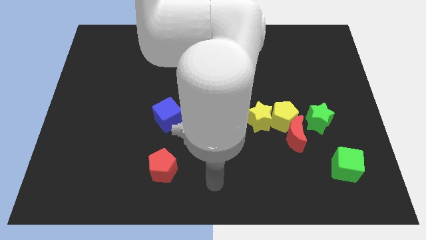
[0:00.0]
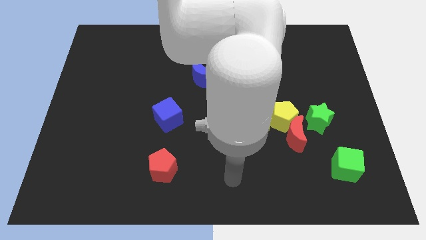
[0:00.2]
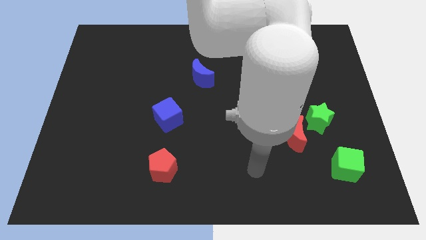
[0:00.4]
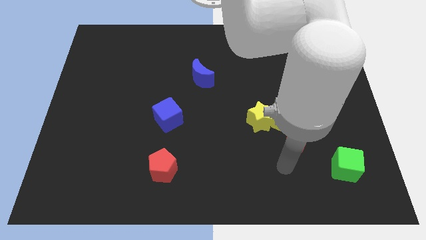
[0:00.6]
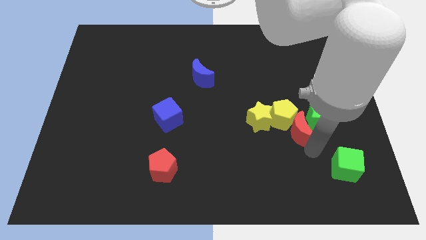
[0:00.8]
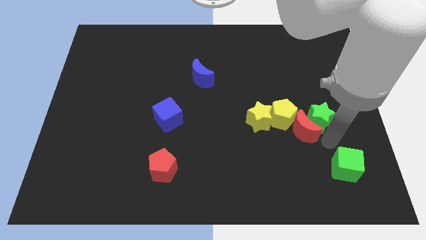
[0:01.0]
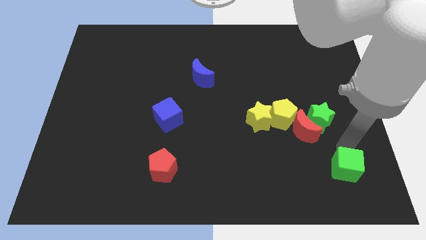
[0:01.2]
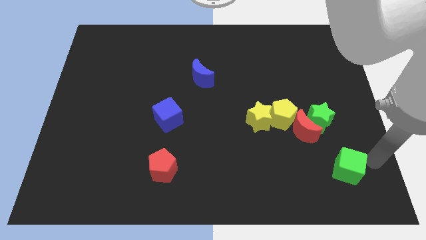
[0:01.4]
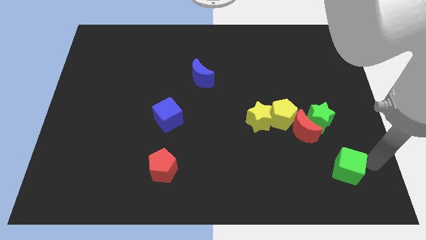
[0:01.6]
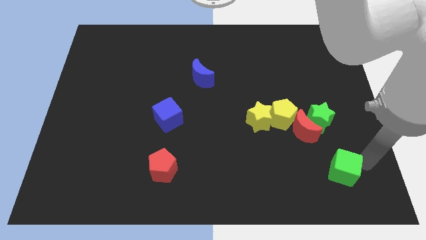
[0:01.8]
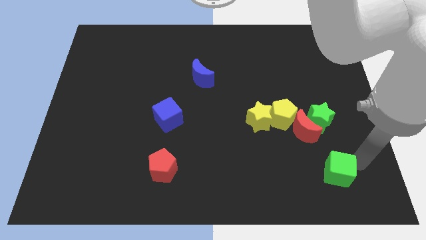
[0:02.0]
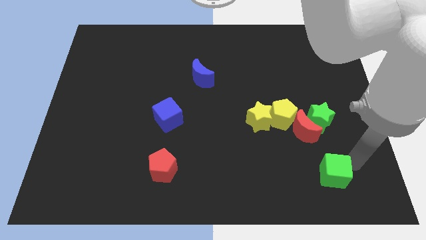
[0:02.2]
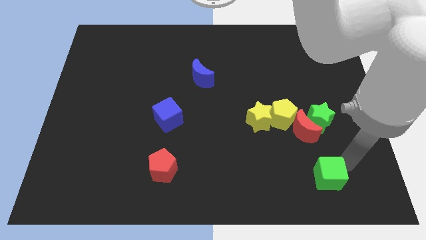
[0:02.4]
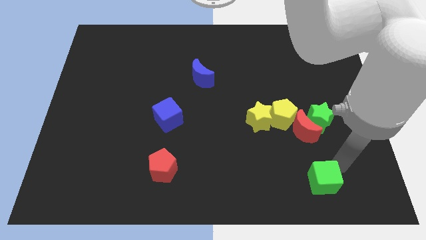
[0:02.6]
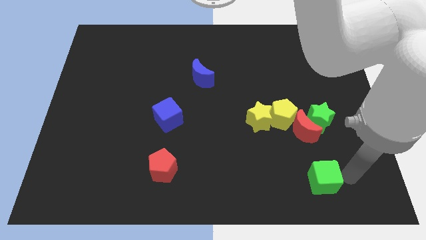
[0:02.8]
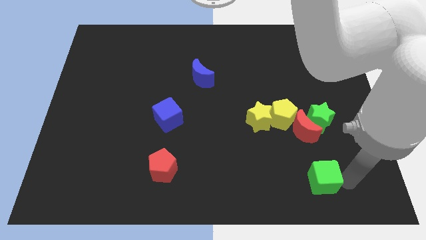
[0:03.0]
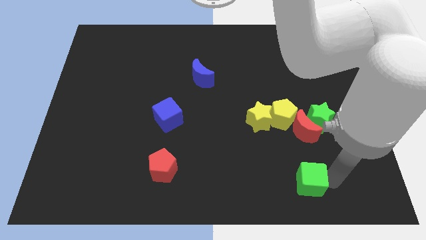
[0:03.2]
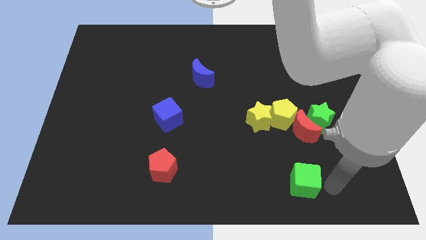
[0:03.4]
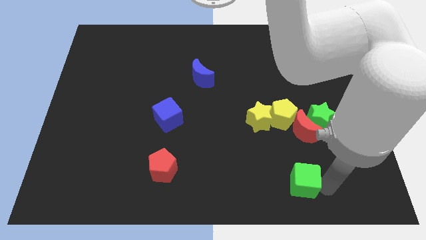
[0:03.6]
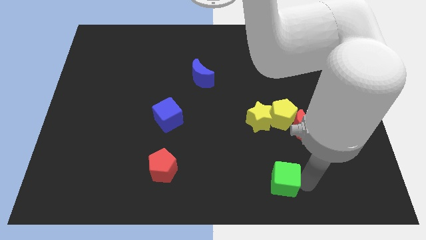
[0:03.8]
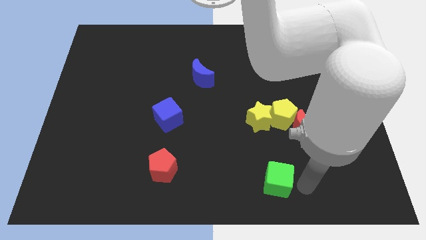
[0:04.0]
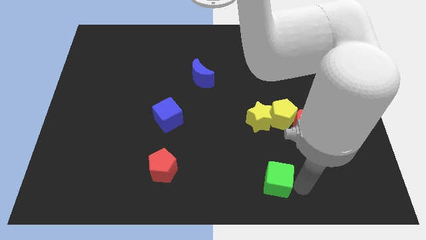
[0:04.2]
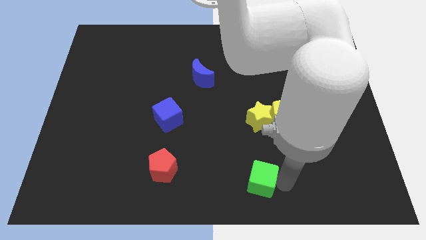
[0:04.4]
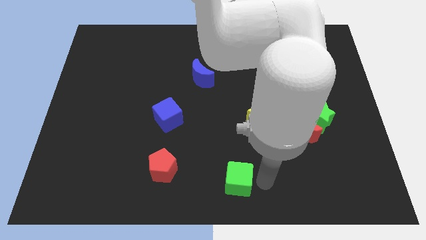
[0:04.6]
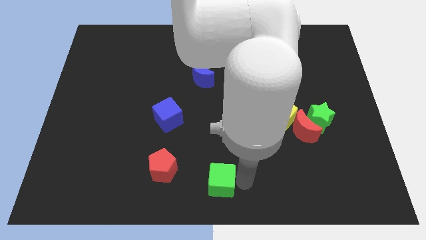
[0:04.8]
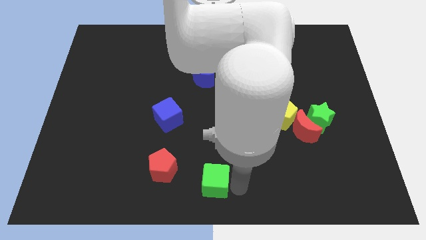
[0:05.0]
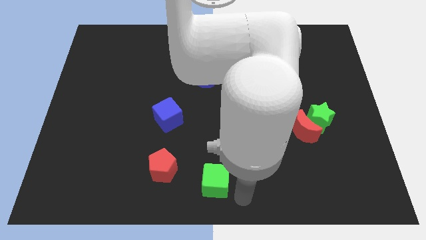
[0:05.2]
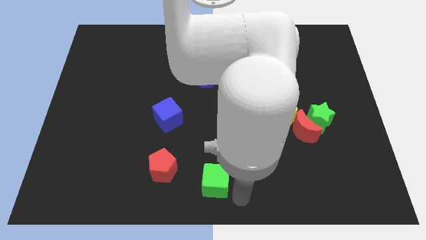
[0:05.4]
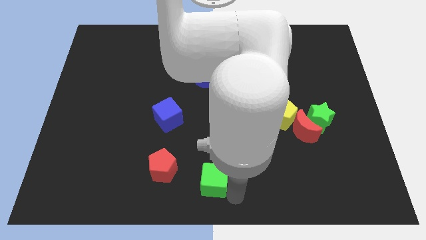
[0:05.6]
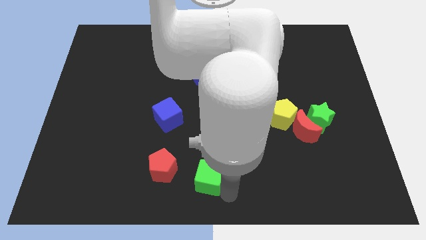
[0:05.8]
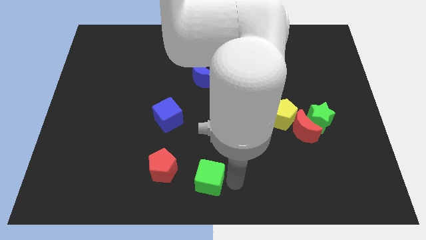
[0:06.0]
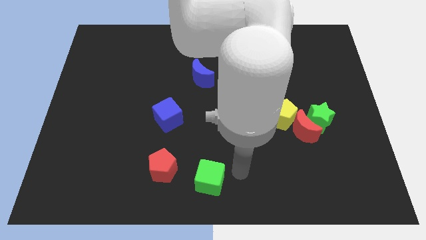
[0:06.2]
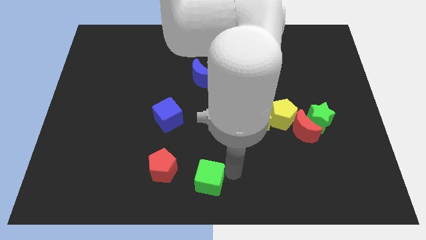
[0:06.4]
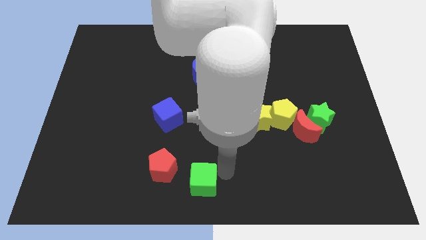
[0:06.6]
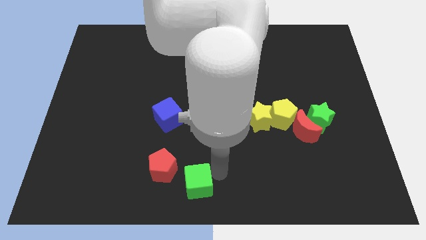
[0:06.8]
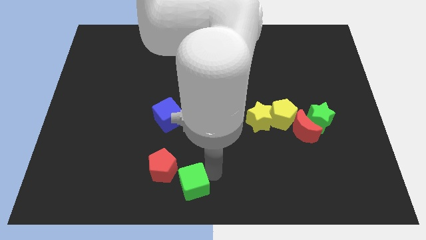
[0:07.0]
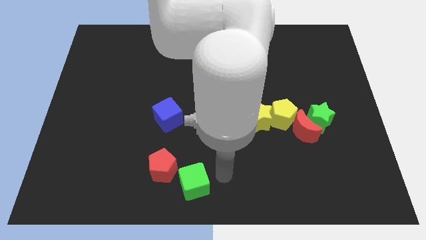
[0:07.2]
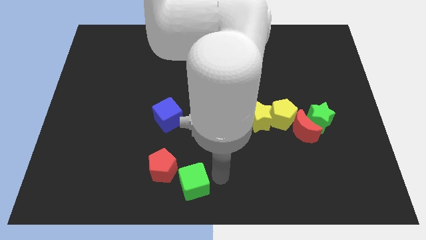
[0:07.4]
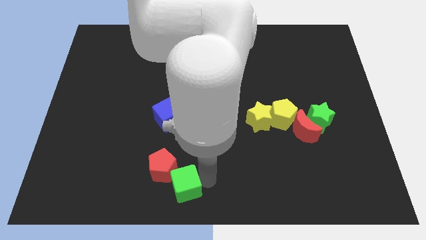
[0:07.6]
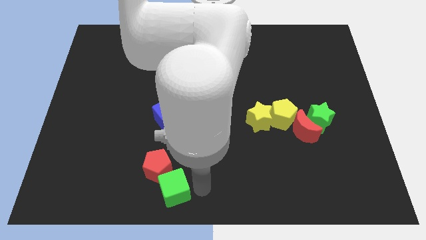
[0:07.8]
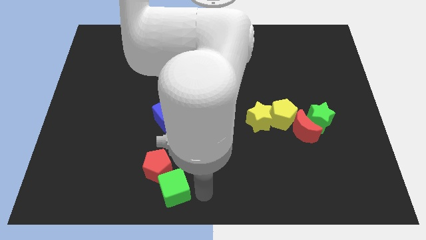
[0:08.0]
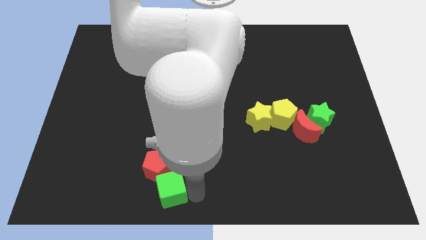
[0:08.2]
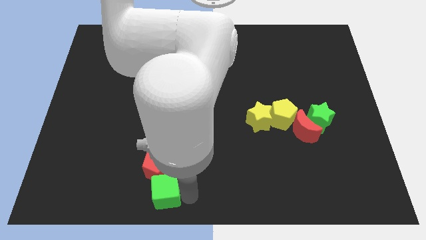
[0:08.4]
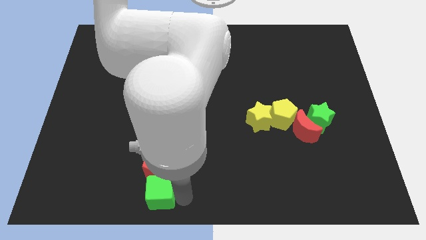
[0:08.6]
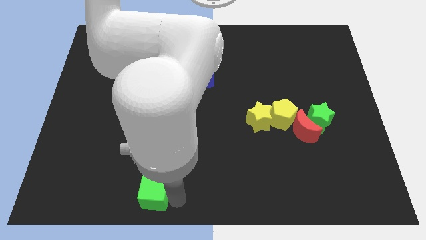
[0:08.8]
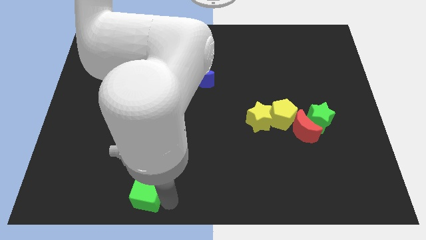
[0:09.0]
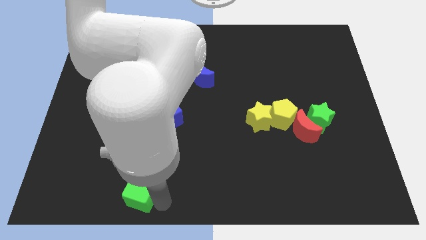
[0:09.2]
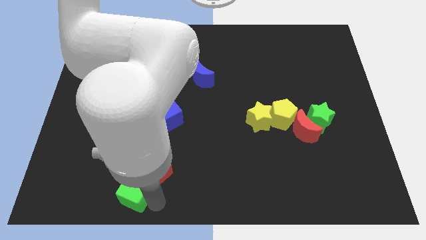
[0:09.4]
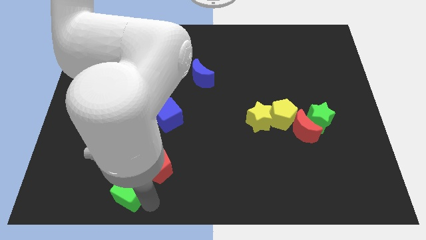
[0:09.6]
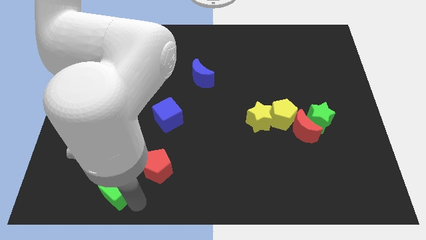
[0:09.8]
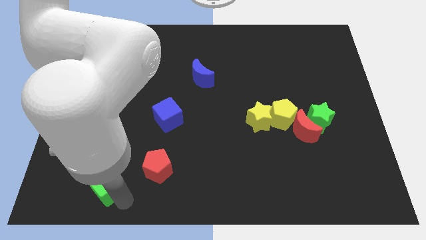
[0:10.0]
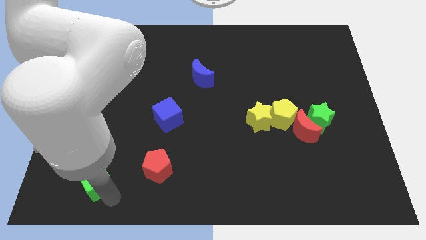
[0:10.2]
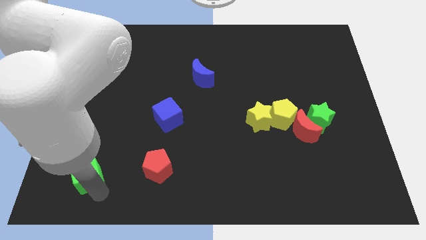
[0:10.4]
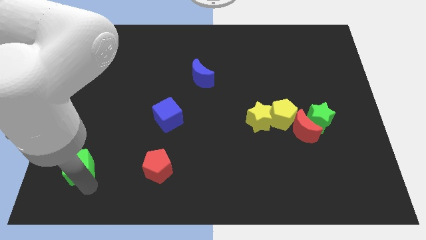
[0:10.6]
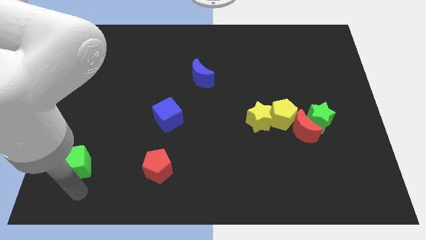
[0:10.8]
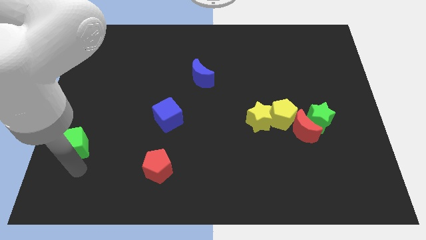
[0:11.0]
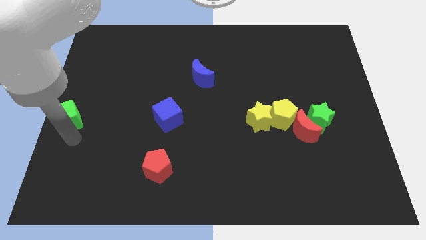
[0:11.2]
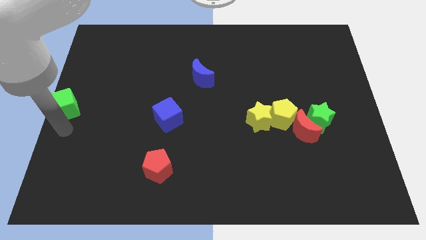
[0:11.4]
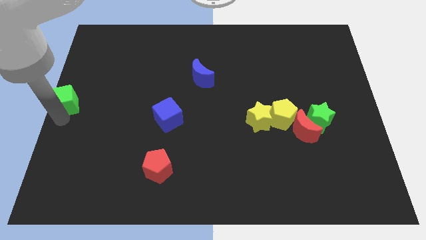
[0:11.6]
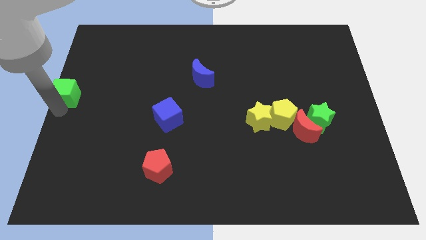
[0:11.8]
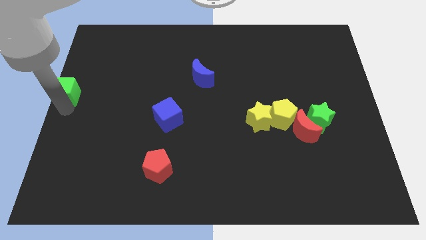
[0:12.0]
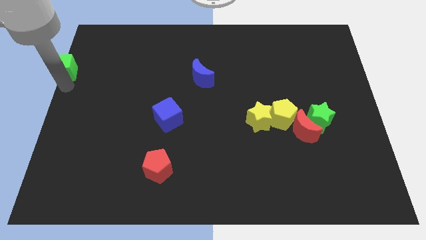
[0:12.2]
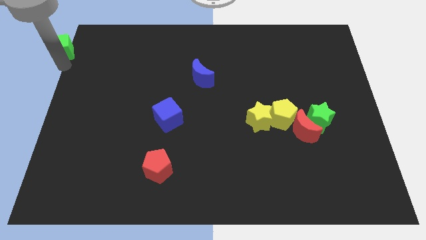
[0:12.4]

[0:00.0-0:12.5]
put the green cube to the top left corner
